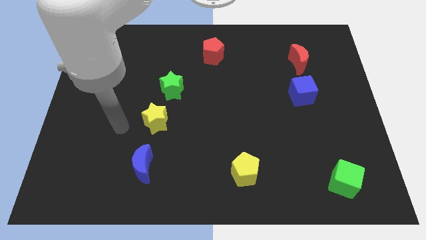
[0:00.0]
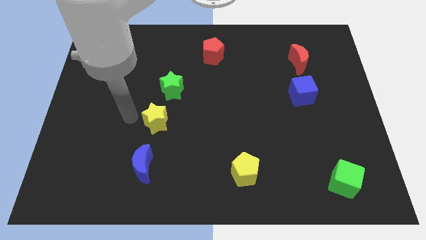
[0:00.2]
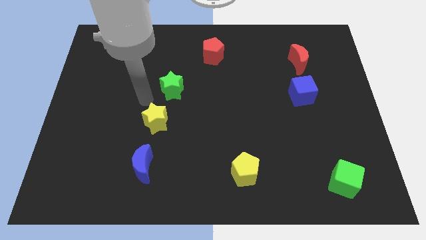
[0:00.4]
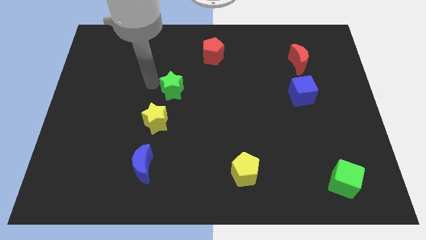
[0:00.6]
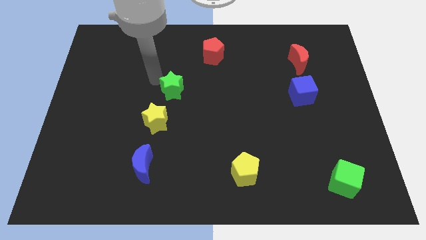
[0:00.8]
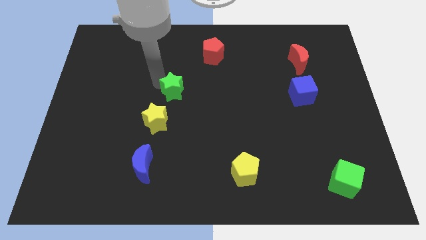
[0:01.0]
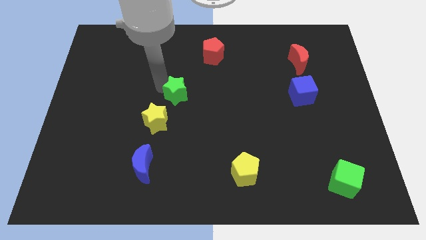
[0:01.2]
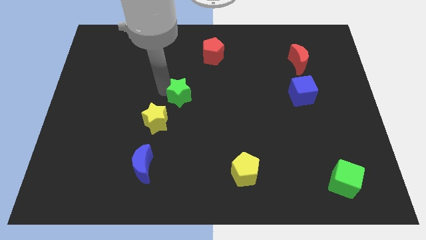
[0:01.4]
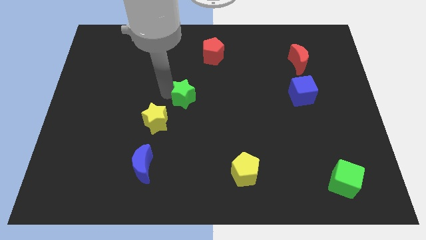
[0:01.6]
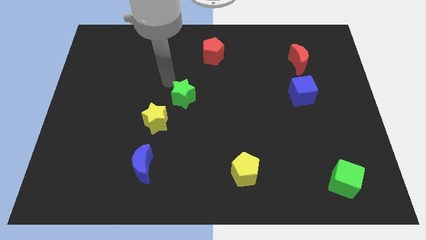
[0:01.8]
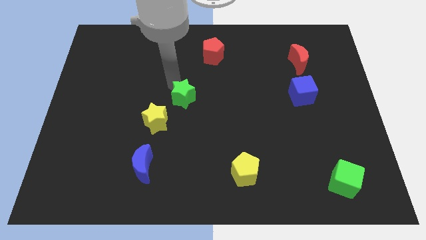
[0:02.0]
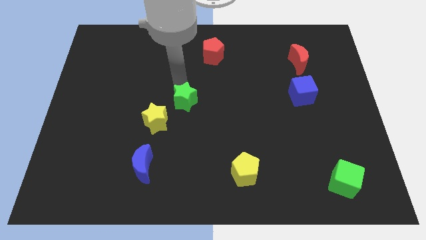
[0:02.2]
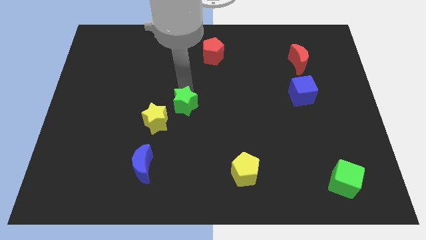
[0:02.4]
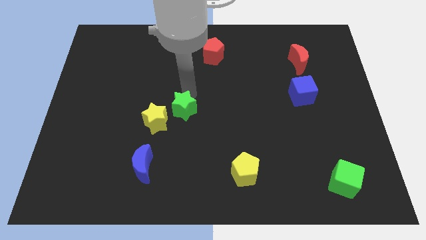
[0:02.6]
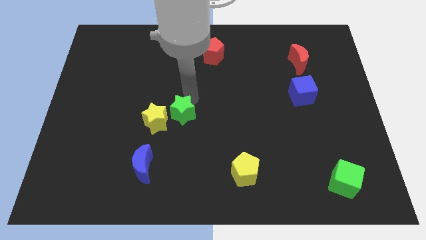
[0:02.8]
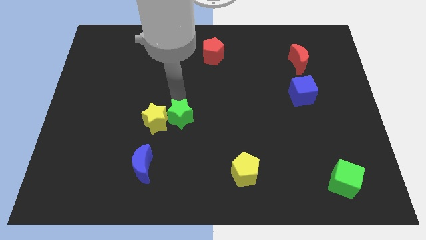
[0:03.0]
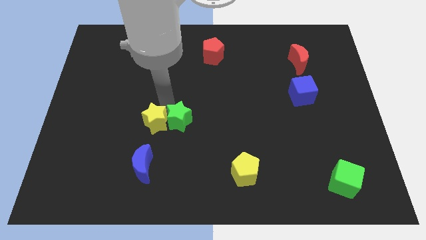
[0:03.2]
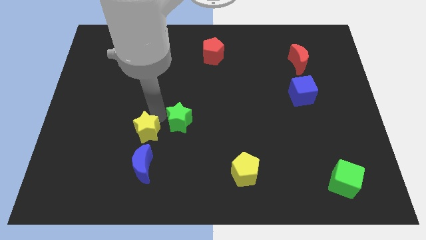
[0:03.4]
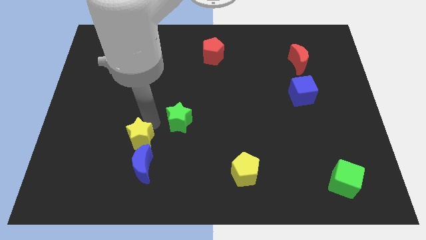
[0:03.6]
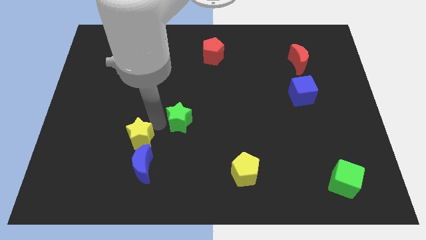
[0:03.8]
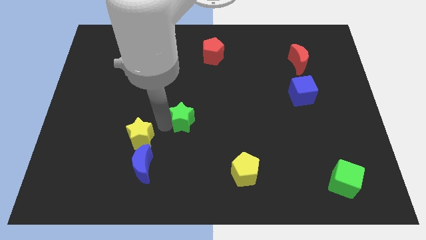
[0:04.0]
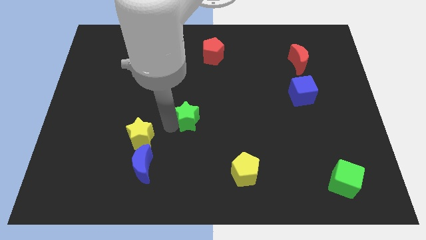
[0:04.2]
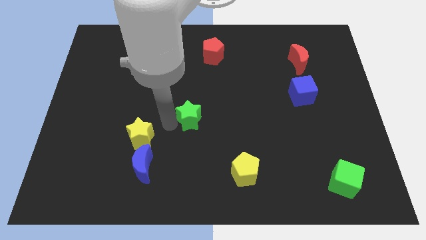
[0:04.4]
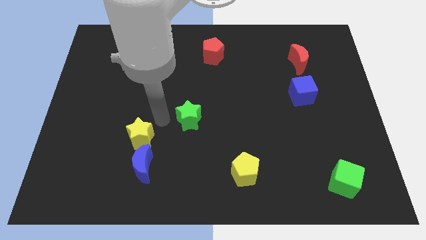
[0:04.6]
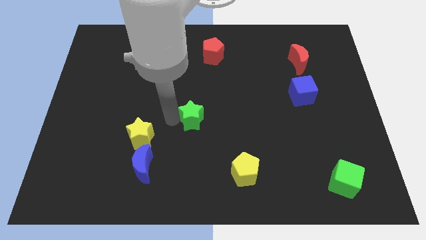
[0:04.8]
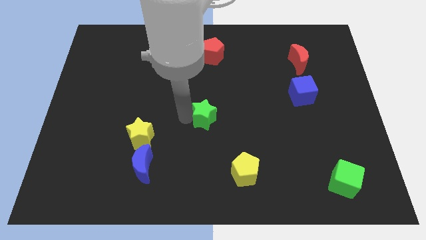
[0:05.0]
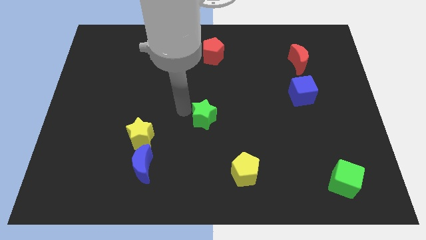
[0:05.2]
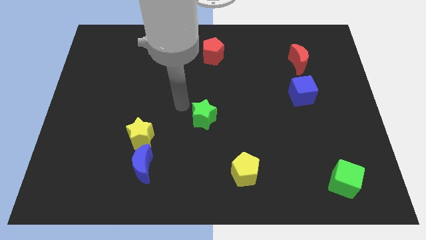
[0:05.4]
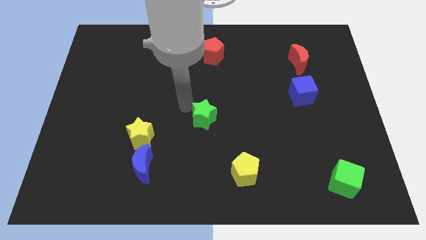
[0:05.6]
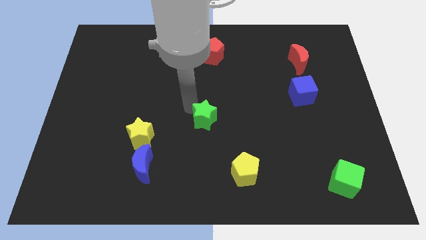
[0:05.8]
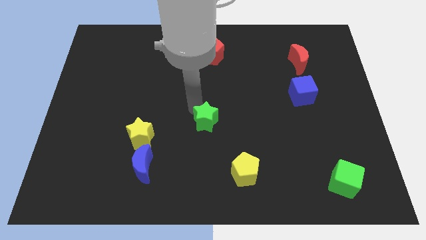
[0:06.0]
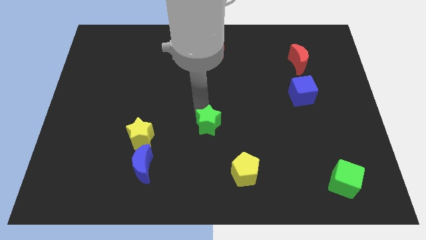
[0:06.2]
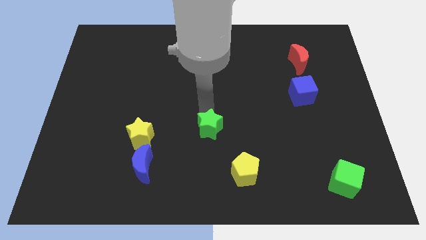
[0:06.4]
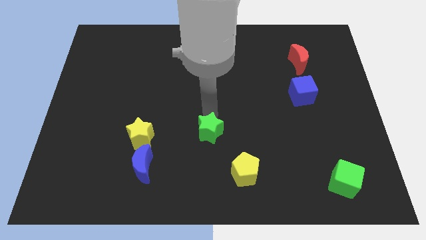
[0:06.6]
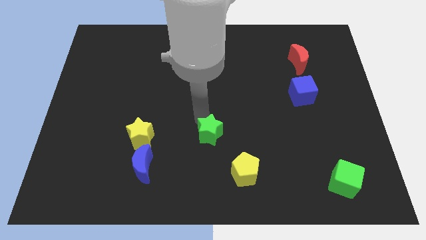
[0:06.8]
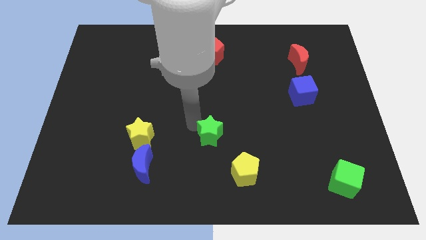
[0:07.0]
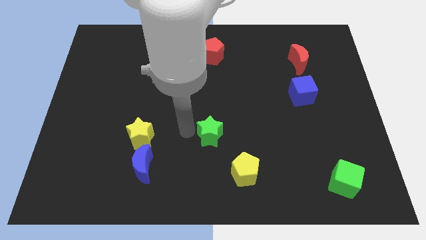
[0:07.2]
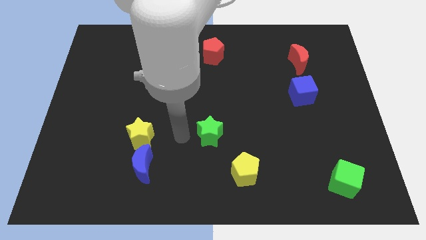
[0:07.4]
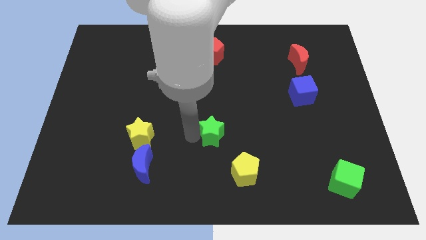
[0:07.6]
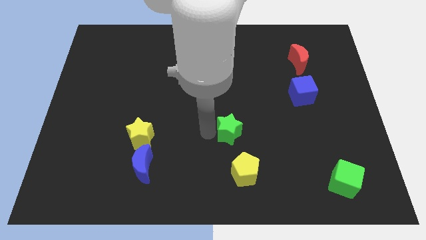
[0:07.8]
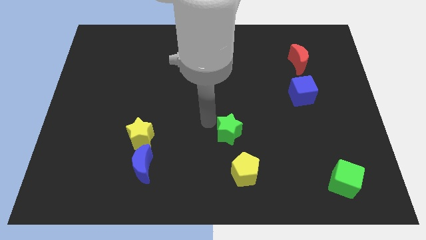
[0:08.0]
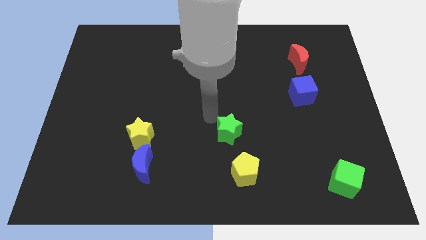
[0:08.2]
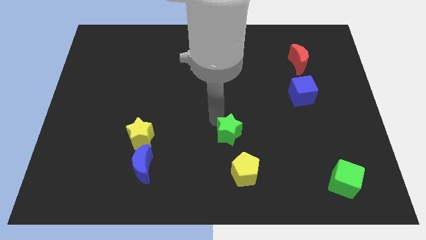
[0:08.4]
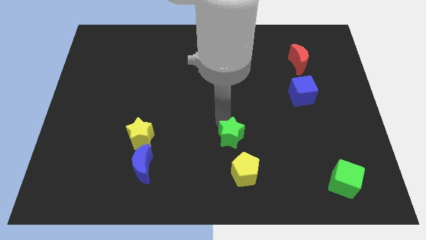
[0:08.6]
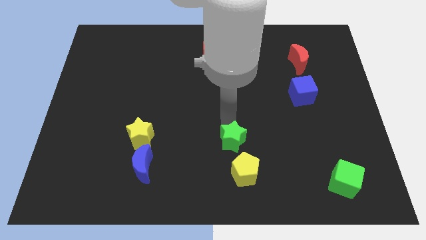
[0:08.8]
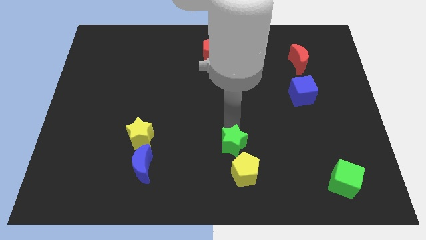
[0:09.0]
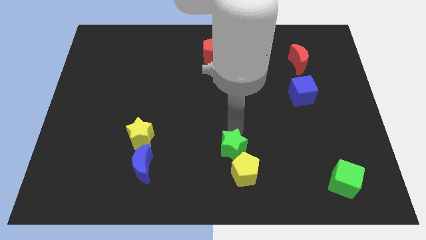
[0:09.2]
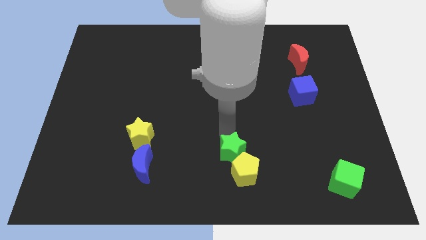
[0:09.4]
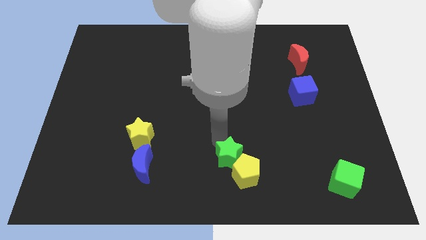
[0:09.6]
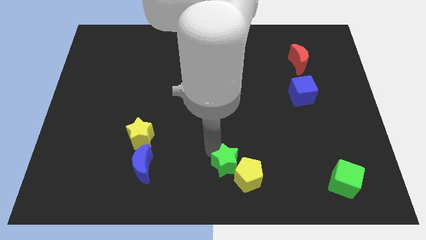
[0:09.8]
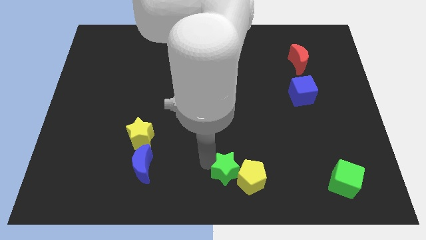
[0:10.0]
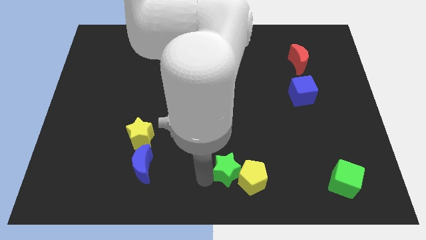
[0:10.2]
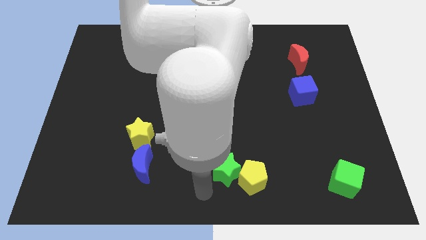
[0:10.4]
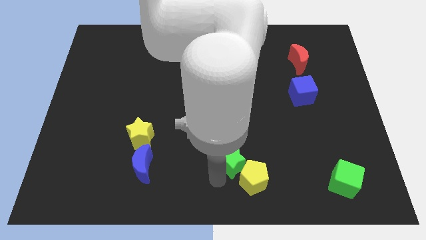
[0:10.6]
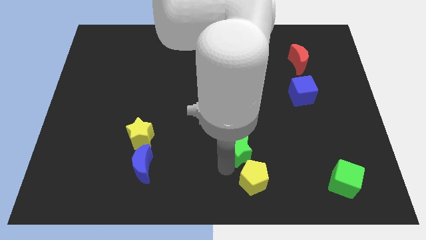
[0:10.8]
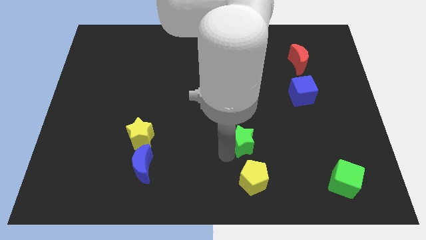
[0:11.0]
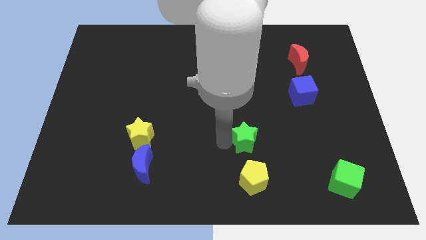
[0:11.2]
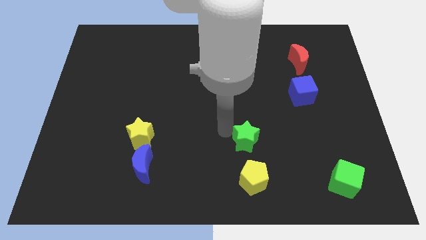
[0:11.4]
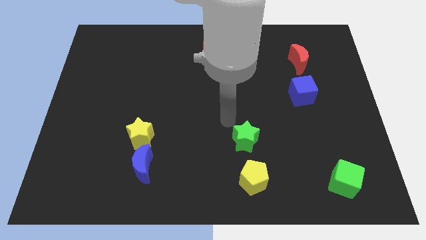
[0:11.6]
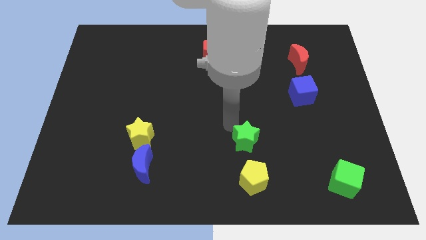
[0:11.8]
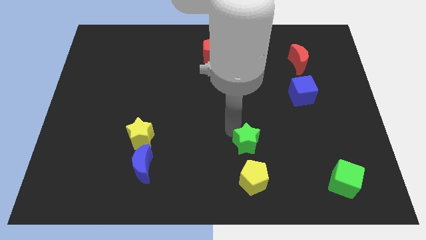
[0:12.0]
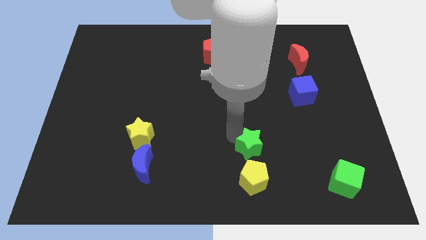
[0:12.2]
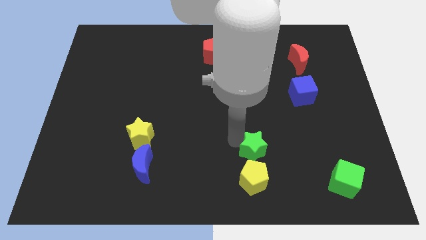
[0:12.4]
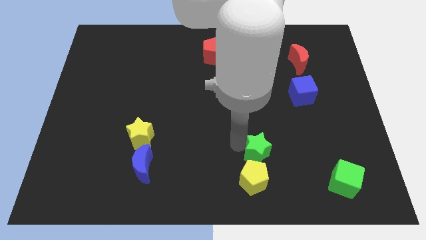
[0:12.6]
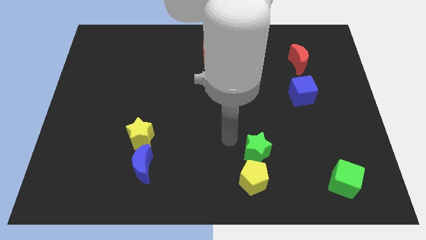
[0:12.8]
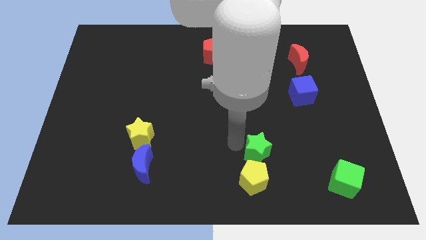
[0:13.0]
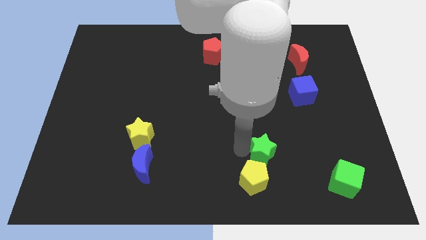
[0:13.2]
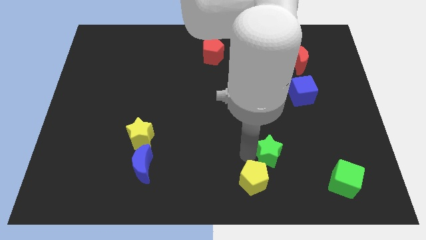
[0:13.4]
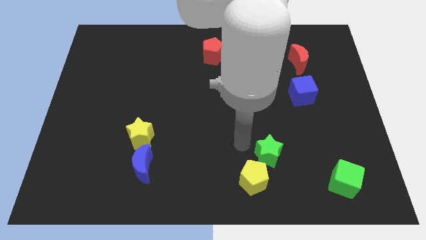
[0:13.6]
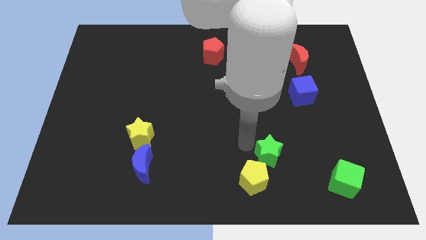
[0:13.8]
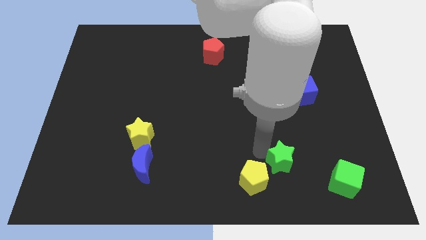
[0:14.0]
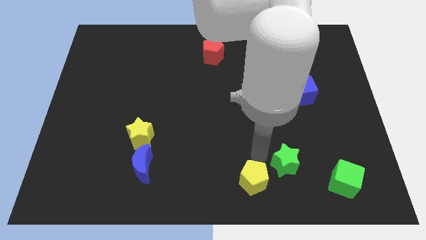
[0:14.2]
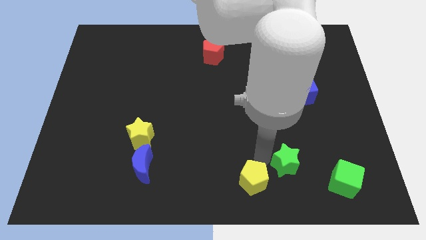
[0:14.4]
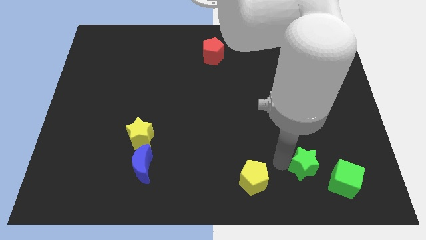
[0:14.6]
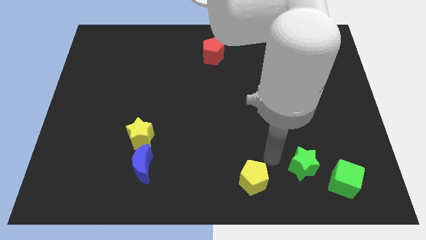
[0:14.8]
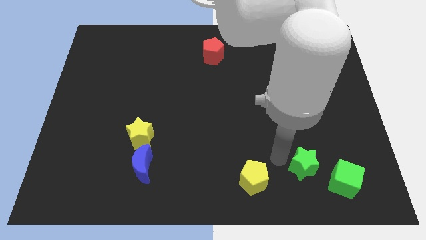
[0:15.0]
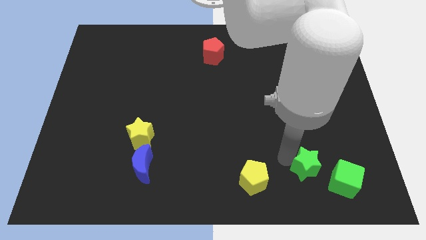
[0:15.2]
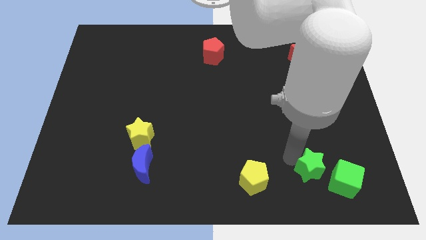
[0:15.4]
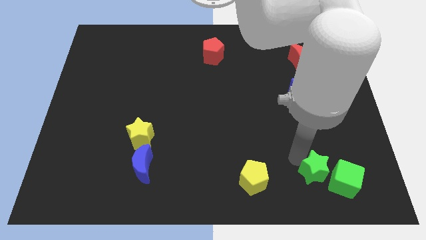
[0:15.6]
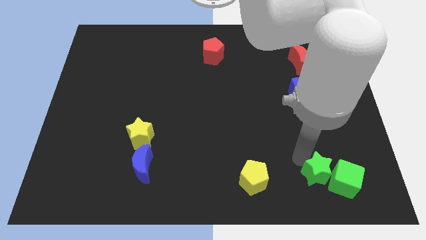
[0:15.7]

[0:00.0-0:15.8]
put the green star next to the green cube
